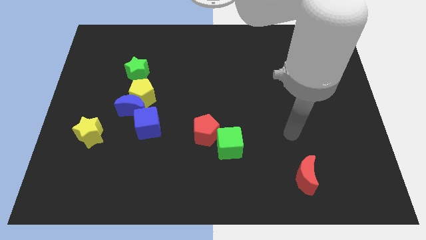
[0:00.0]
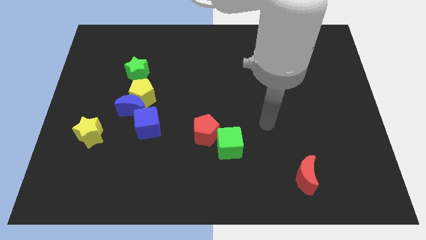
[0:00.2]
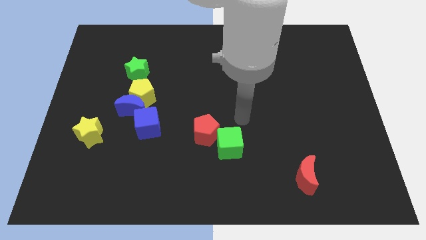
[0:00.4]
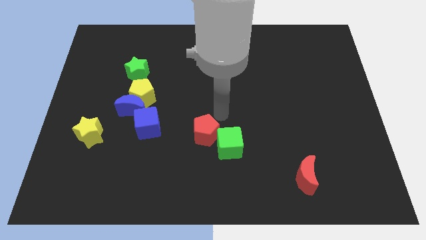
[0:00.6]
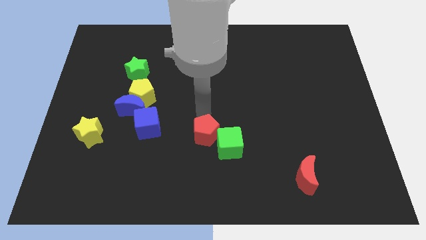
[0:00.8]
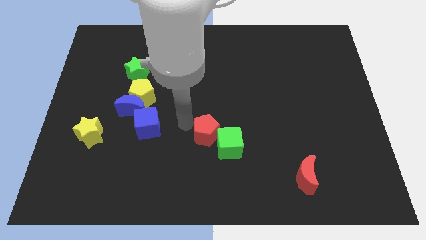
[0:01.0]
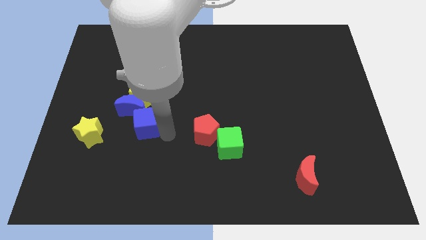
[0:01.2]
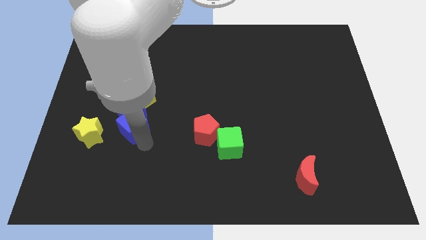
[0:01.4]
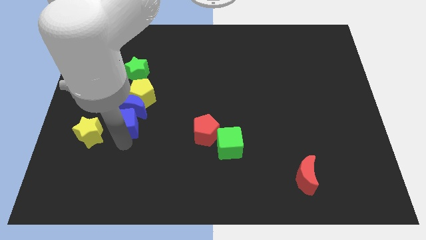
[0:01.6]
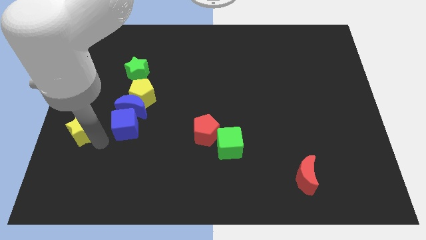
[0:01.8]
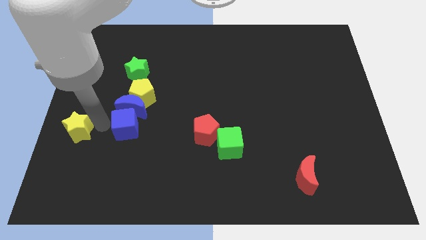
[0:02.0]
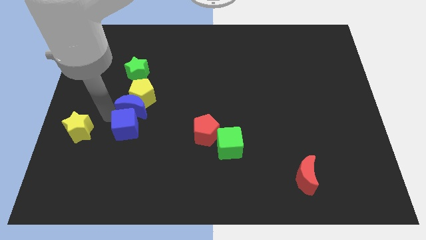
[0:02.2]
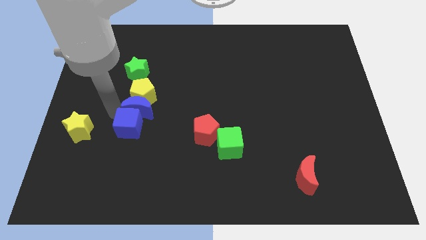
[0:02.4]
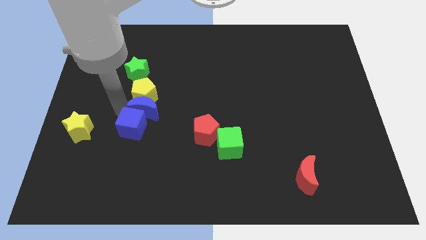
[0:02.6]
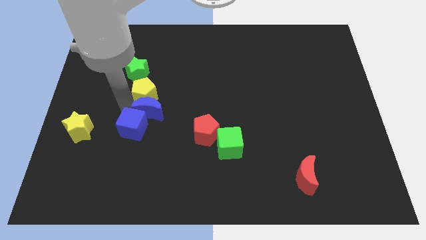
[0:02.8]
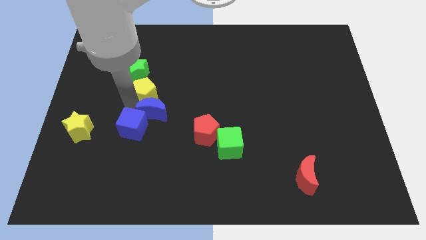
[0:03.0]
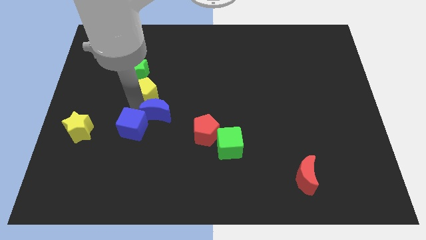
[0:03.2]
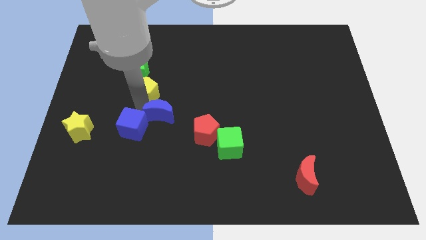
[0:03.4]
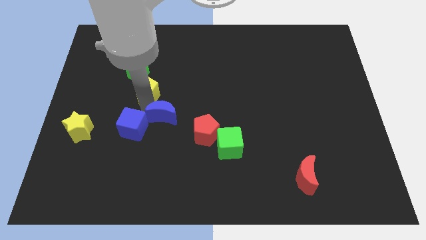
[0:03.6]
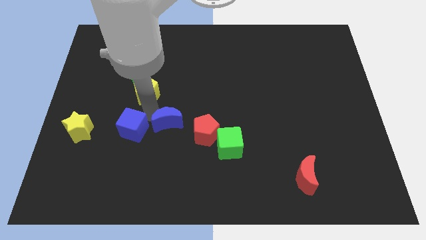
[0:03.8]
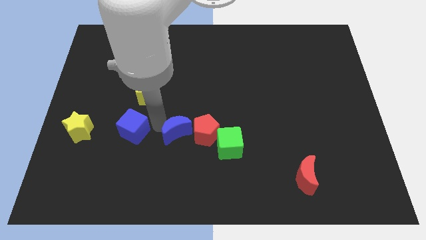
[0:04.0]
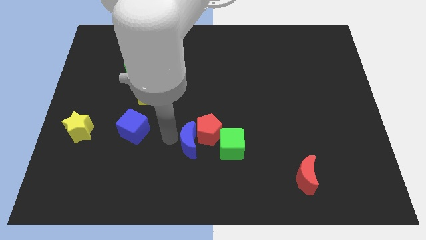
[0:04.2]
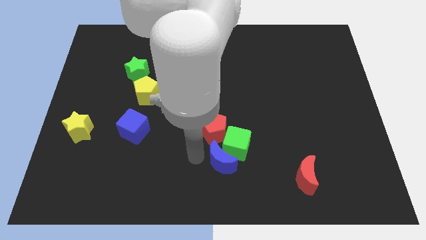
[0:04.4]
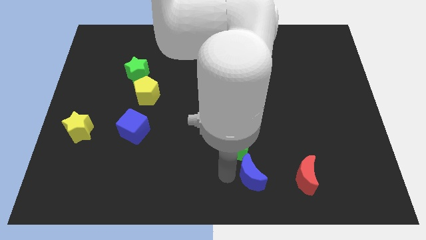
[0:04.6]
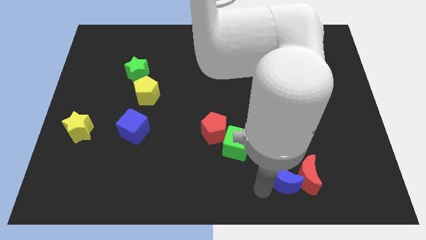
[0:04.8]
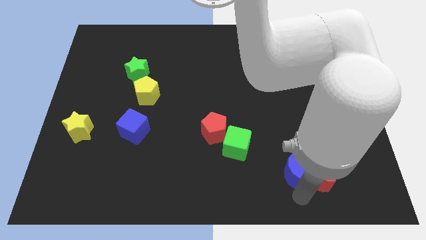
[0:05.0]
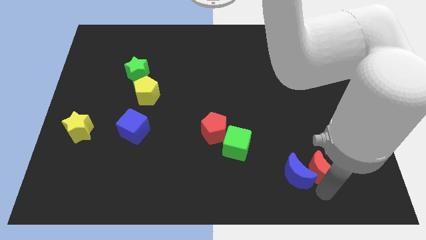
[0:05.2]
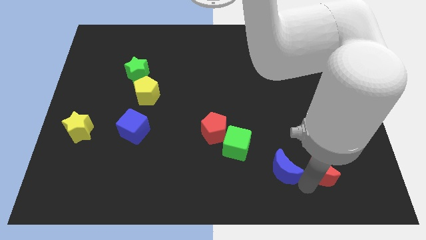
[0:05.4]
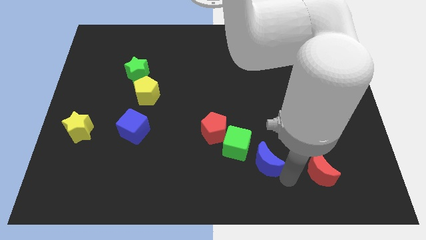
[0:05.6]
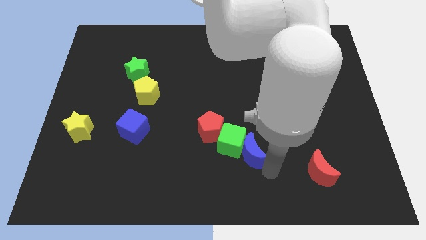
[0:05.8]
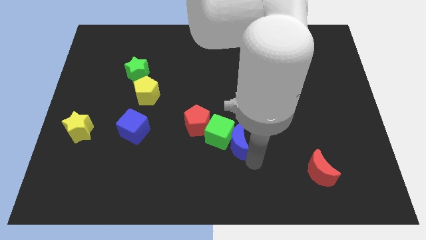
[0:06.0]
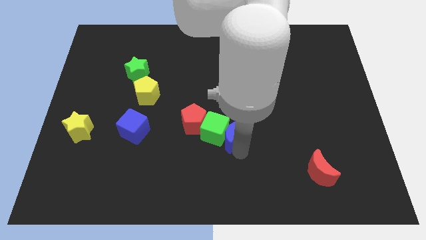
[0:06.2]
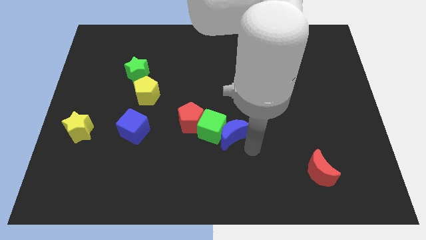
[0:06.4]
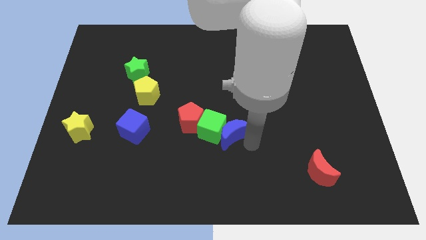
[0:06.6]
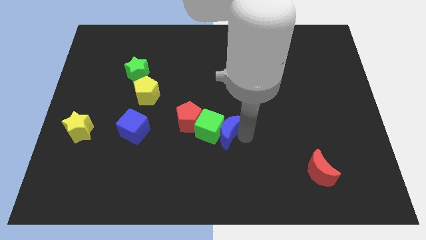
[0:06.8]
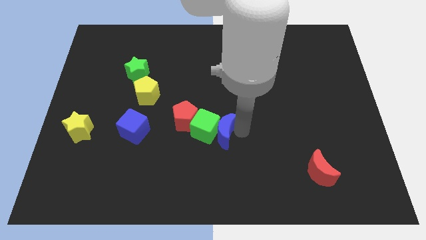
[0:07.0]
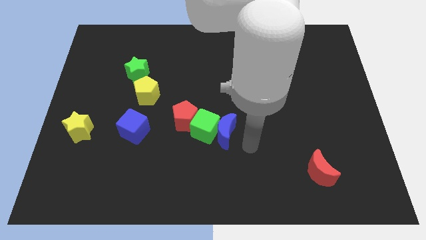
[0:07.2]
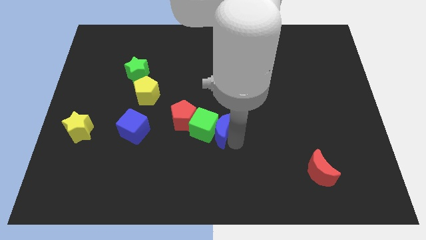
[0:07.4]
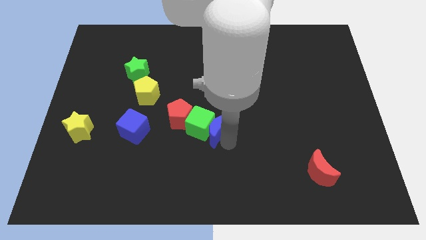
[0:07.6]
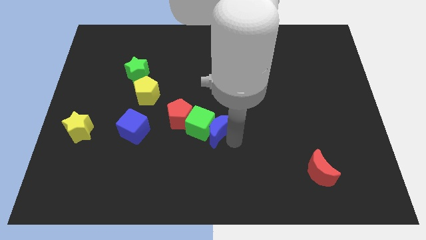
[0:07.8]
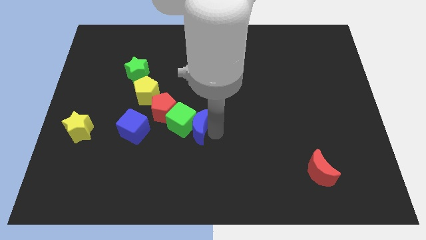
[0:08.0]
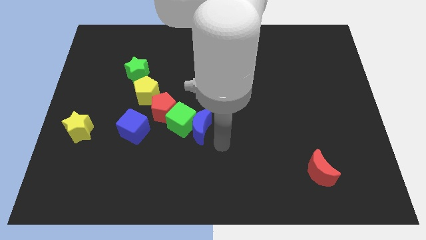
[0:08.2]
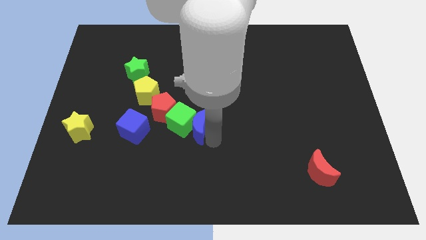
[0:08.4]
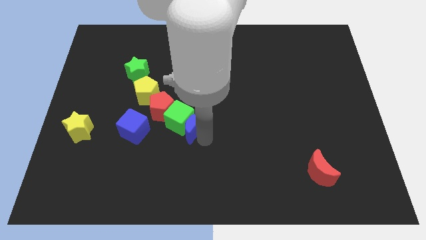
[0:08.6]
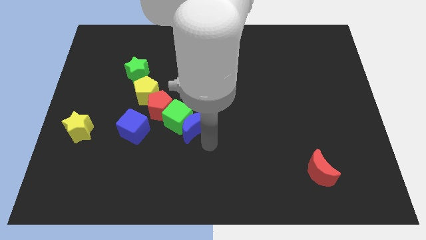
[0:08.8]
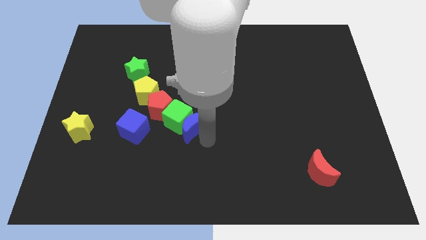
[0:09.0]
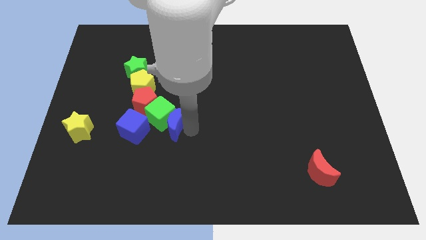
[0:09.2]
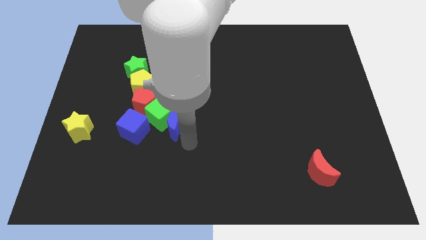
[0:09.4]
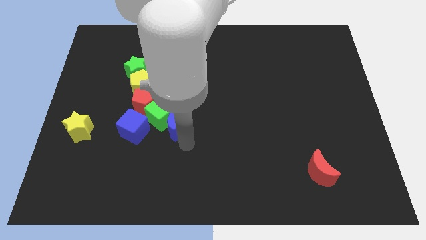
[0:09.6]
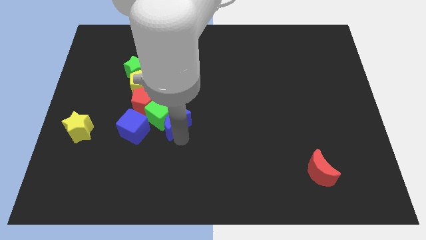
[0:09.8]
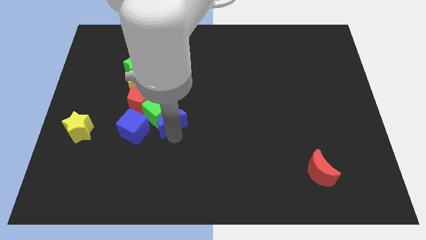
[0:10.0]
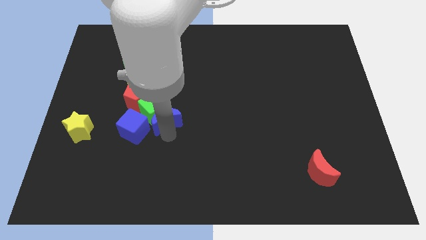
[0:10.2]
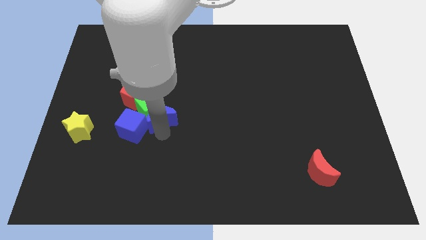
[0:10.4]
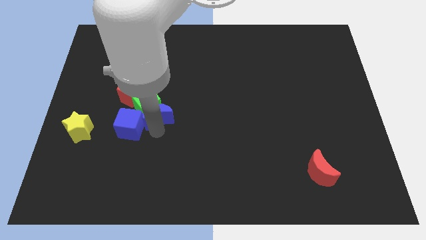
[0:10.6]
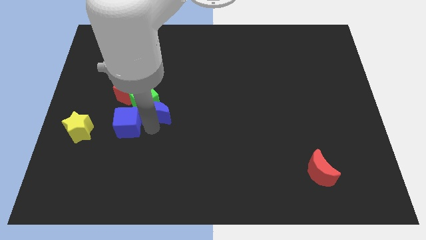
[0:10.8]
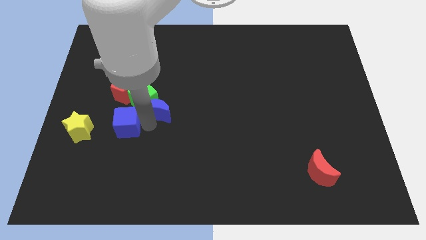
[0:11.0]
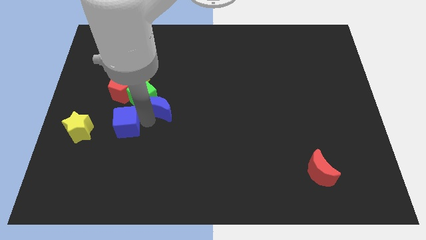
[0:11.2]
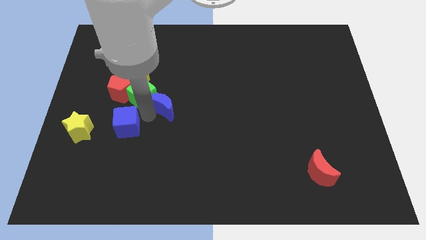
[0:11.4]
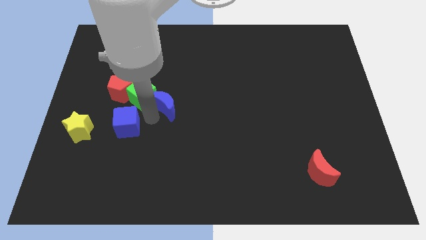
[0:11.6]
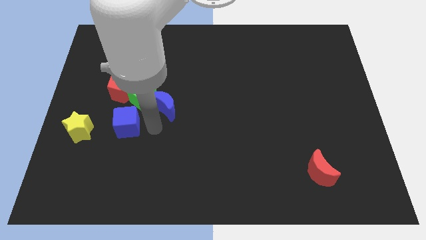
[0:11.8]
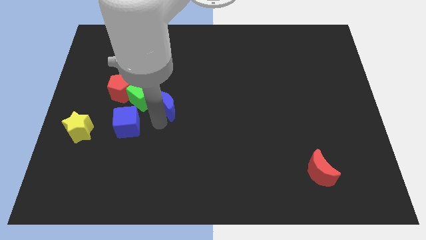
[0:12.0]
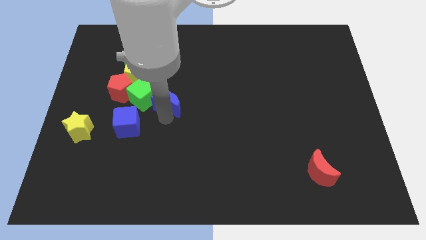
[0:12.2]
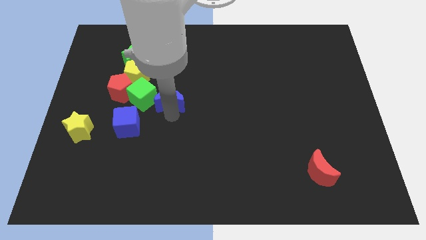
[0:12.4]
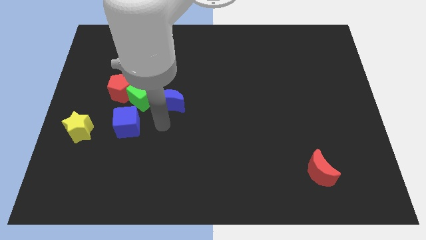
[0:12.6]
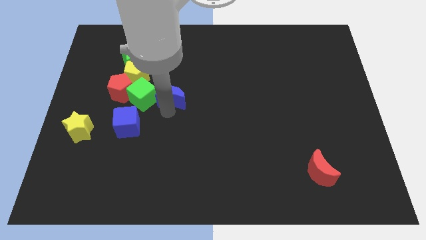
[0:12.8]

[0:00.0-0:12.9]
slightly push the blue moon diagonally up and to the right

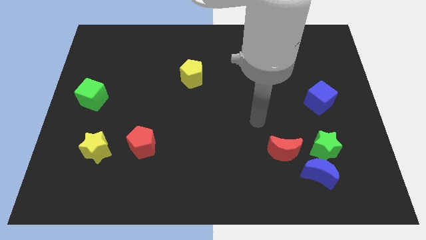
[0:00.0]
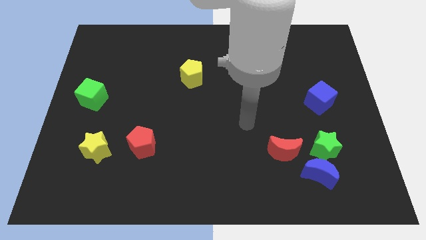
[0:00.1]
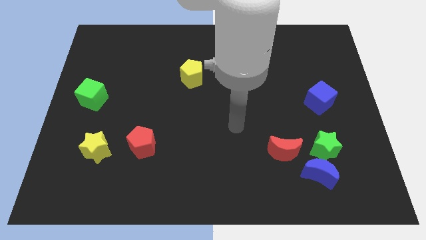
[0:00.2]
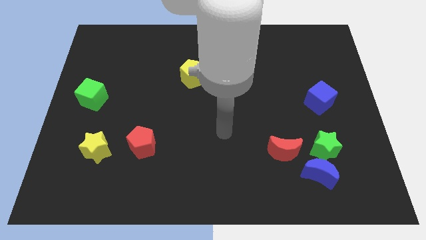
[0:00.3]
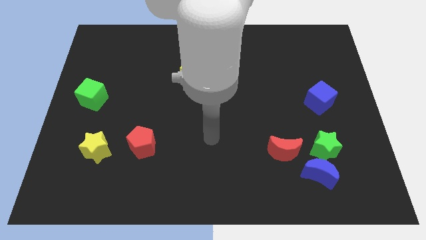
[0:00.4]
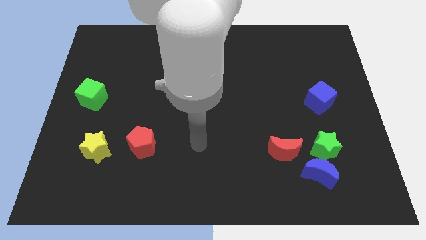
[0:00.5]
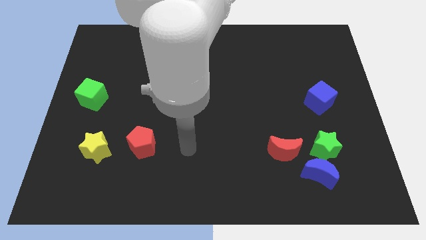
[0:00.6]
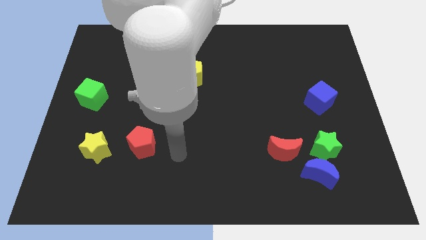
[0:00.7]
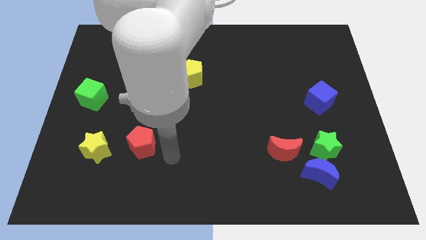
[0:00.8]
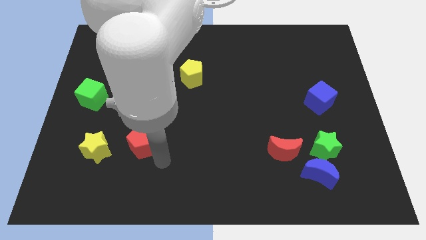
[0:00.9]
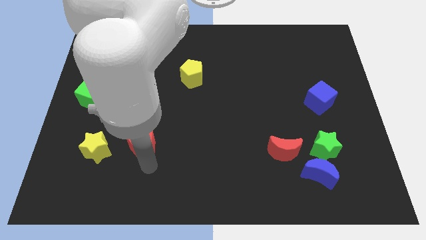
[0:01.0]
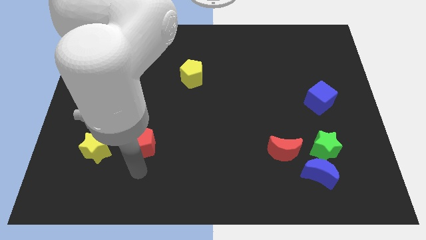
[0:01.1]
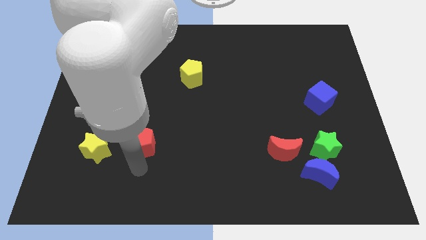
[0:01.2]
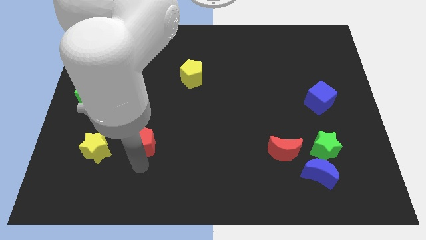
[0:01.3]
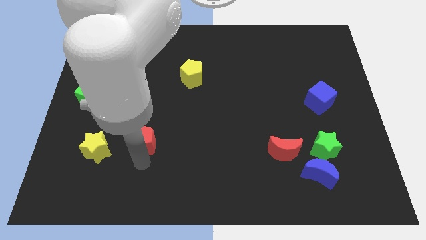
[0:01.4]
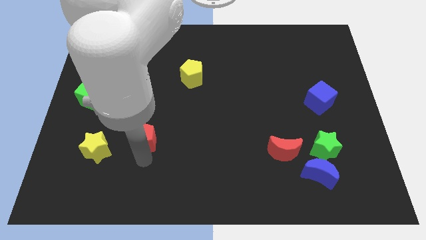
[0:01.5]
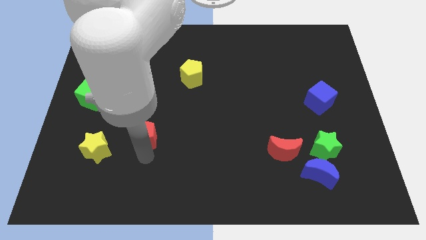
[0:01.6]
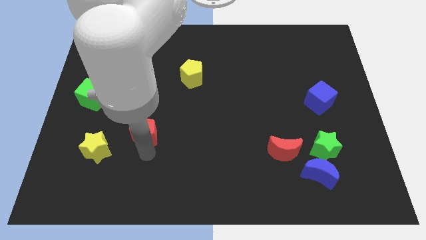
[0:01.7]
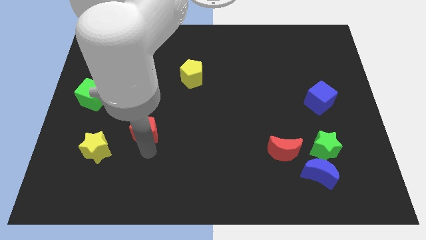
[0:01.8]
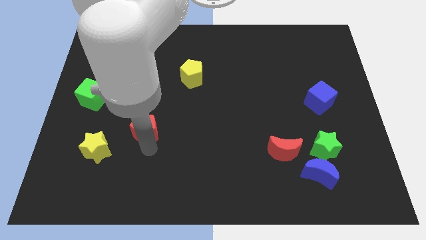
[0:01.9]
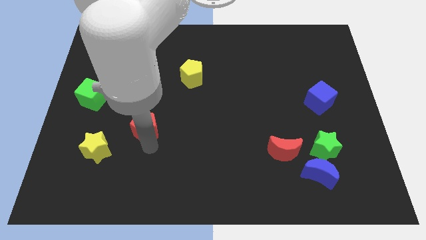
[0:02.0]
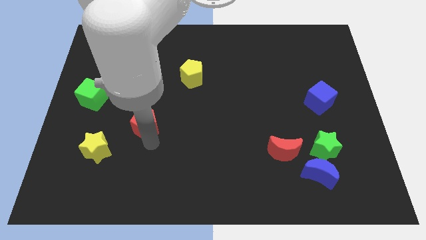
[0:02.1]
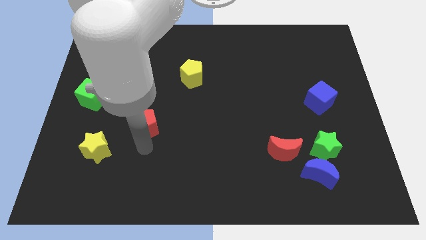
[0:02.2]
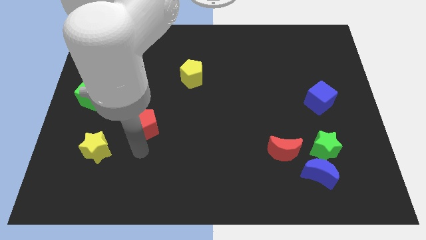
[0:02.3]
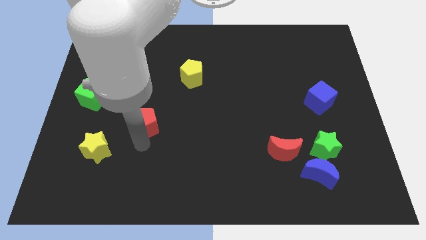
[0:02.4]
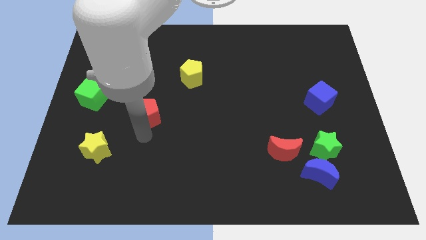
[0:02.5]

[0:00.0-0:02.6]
push the red pentagon a little bit up
